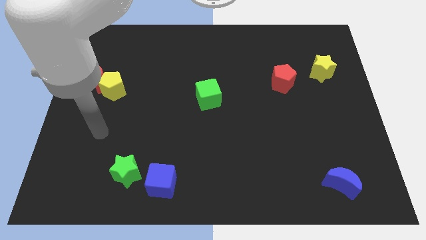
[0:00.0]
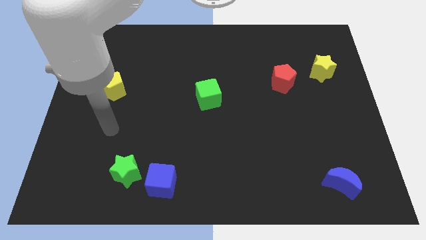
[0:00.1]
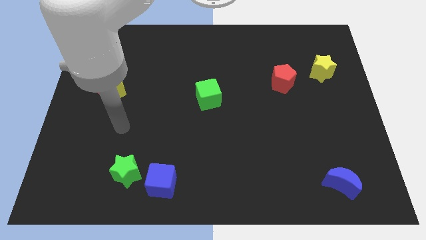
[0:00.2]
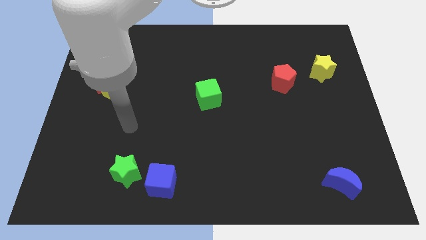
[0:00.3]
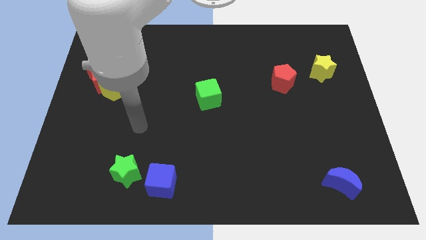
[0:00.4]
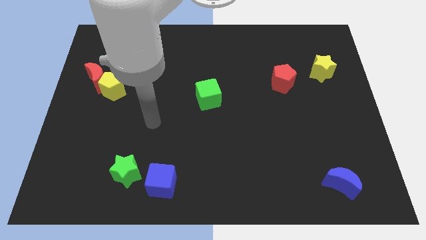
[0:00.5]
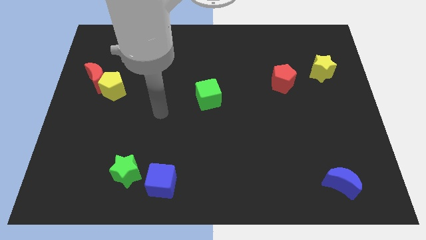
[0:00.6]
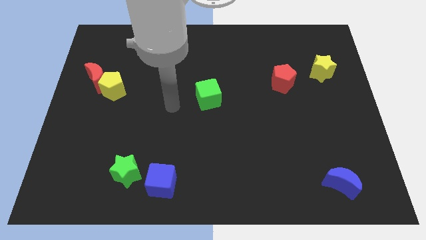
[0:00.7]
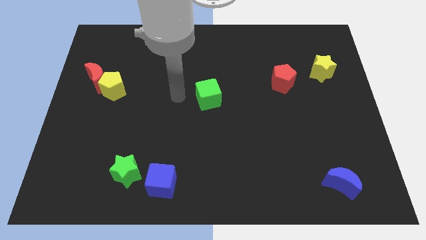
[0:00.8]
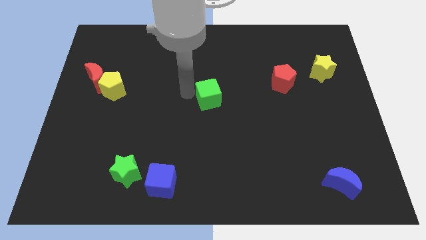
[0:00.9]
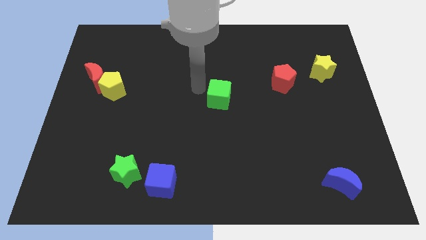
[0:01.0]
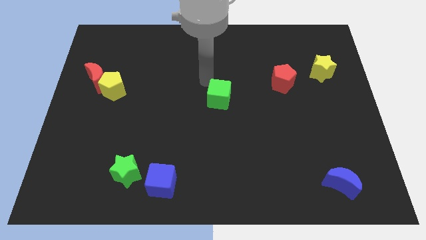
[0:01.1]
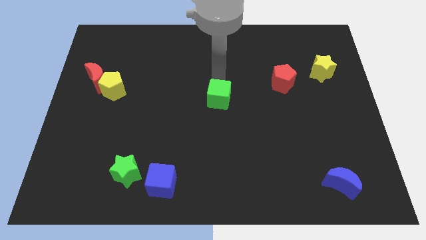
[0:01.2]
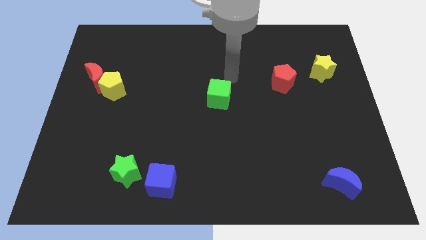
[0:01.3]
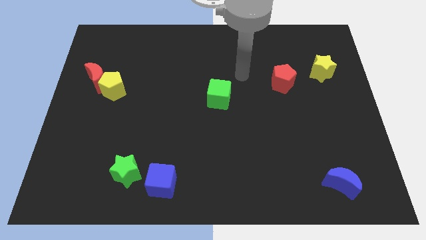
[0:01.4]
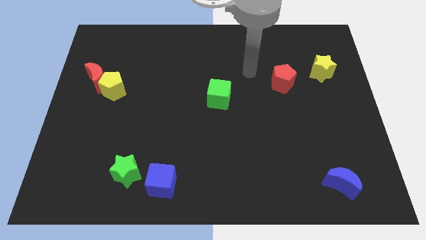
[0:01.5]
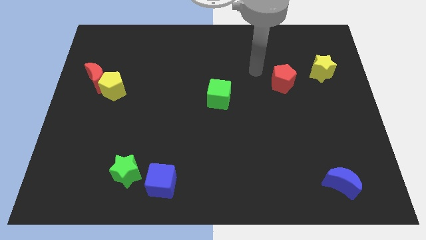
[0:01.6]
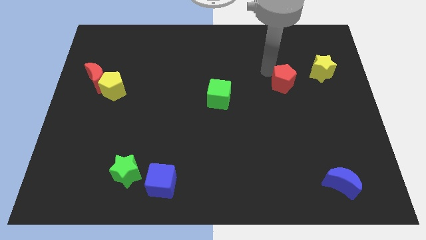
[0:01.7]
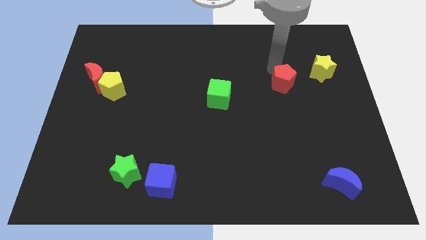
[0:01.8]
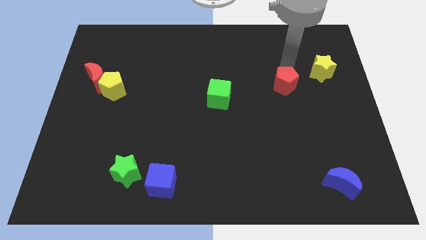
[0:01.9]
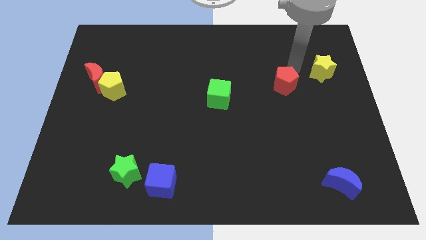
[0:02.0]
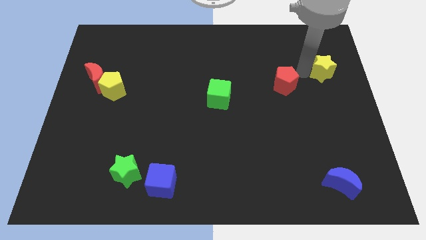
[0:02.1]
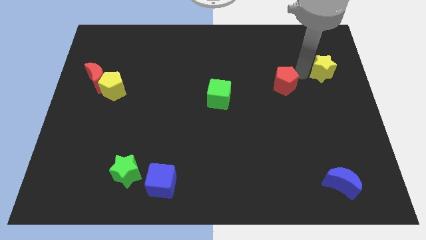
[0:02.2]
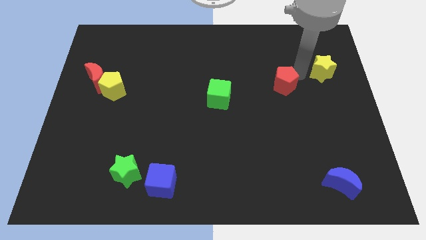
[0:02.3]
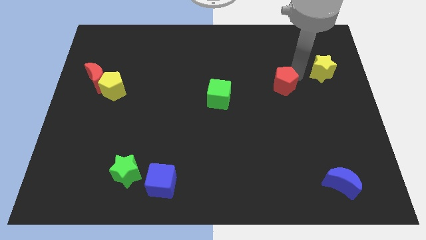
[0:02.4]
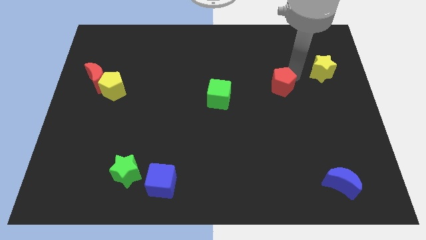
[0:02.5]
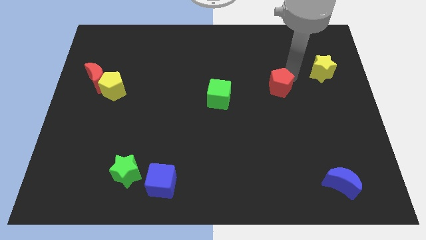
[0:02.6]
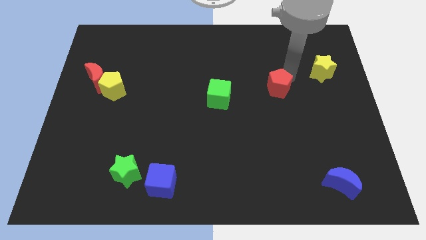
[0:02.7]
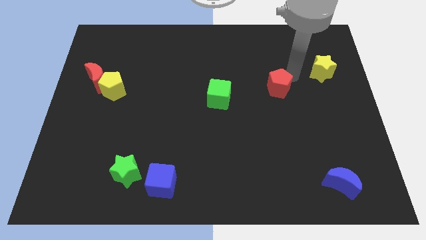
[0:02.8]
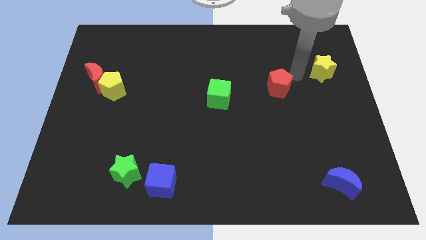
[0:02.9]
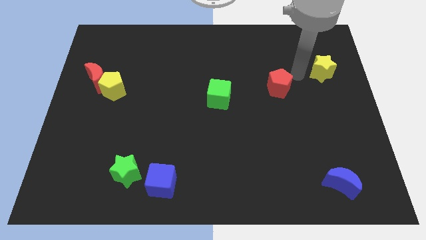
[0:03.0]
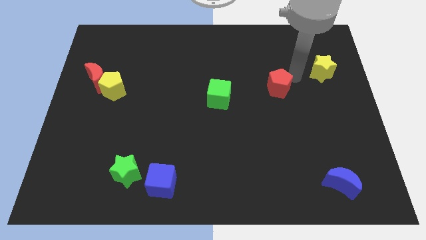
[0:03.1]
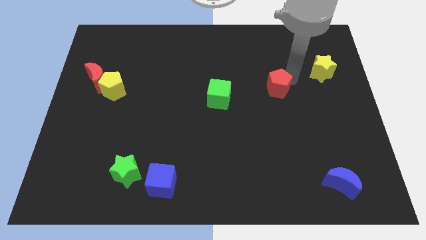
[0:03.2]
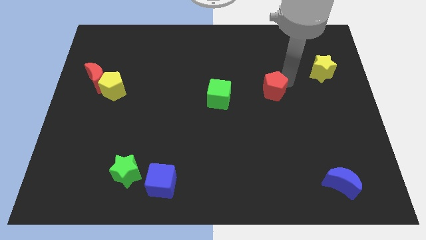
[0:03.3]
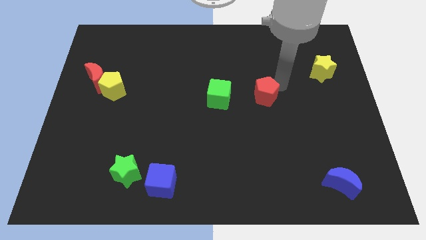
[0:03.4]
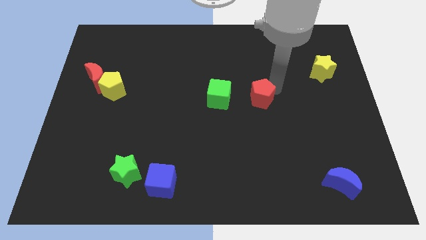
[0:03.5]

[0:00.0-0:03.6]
move the red pentagon slightly downwards and then left

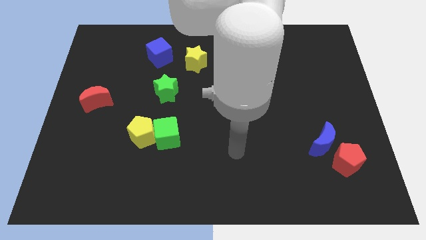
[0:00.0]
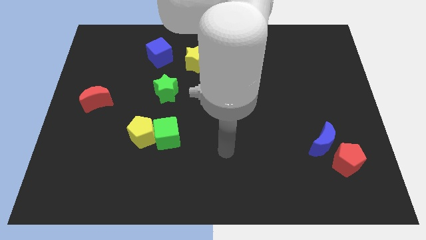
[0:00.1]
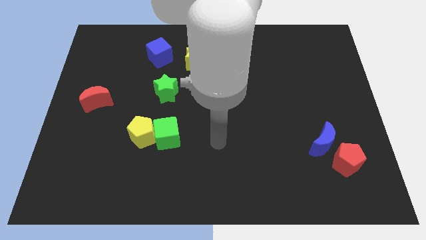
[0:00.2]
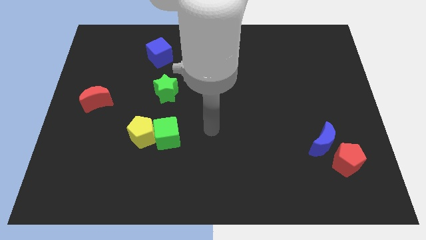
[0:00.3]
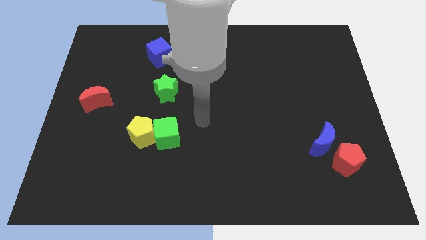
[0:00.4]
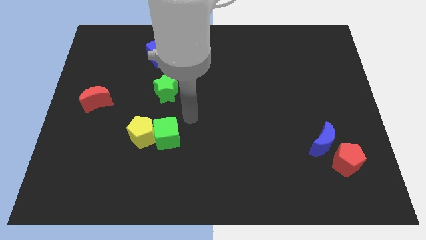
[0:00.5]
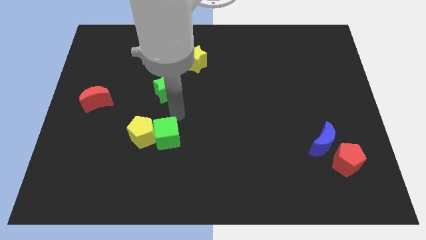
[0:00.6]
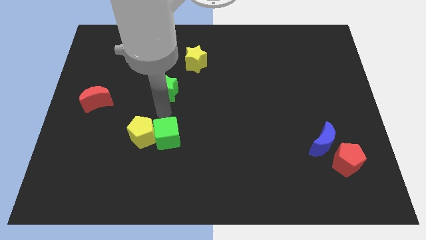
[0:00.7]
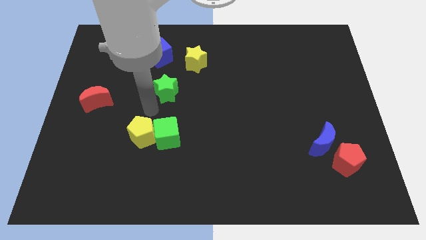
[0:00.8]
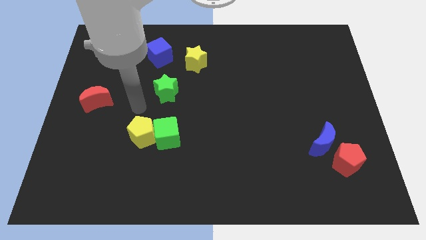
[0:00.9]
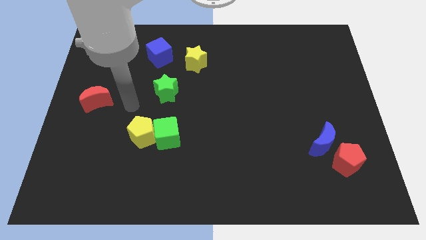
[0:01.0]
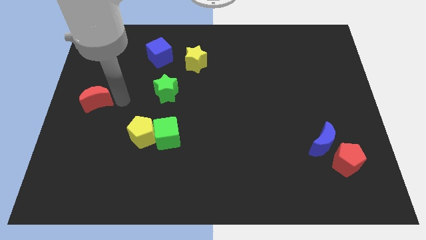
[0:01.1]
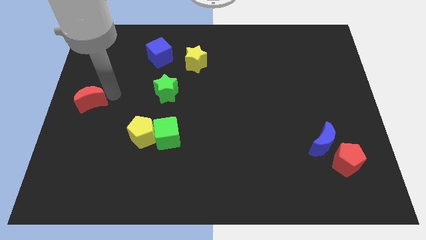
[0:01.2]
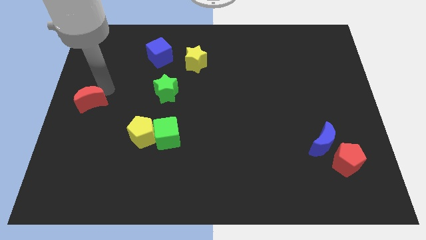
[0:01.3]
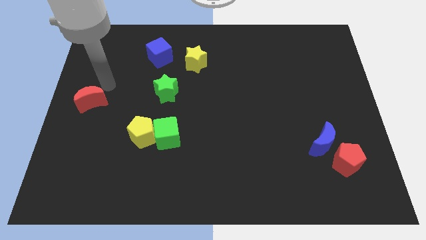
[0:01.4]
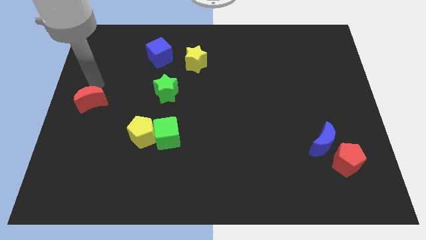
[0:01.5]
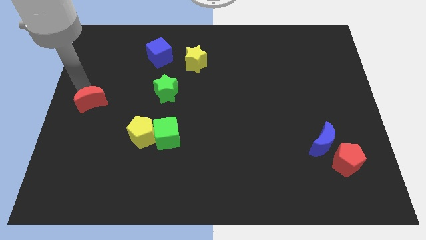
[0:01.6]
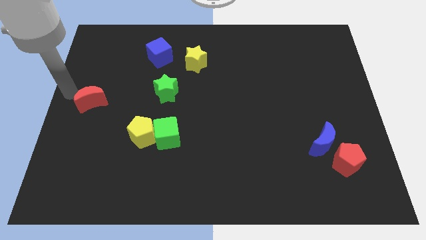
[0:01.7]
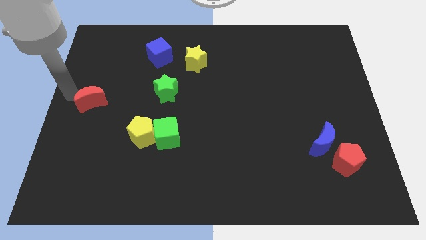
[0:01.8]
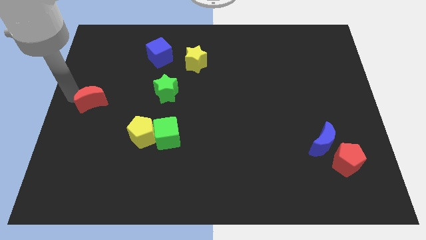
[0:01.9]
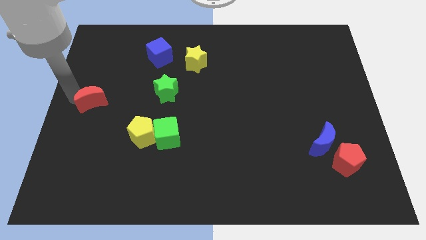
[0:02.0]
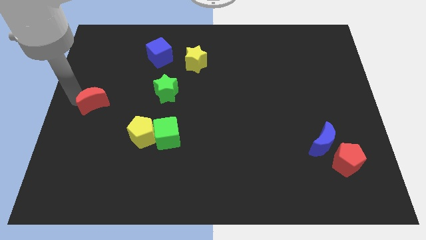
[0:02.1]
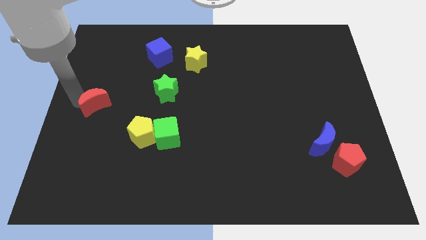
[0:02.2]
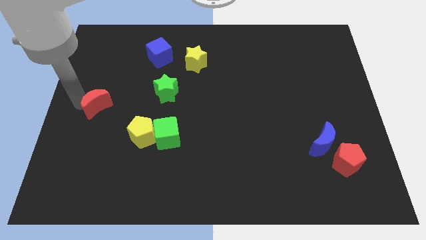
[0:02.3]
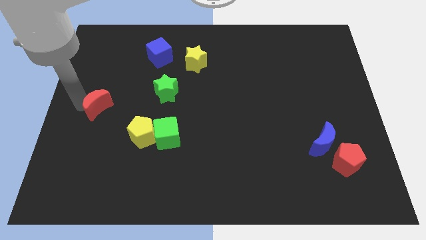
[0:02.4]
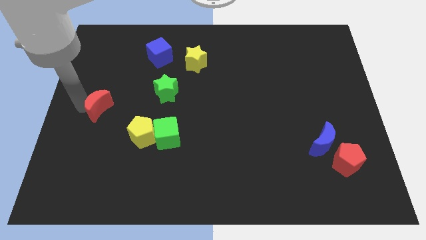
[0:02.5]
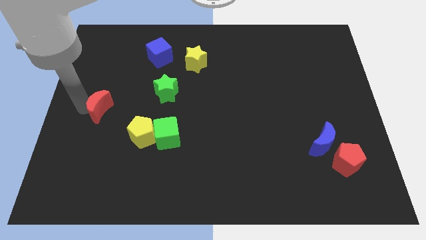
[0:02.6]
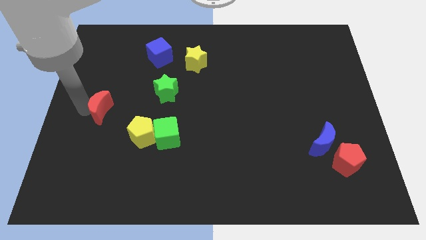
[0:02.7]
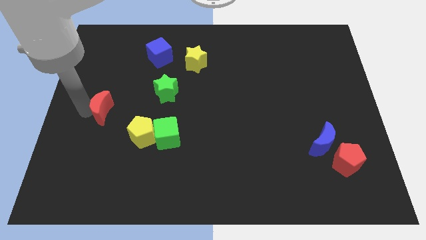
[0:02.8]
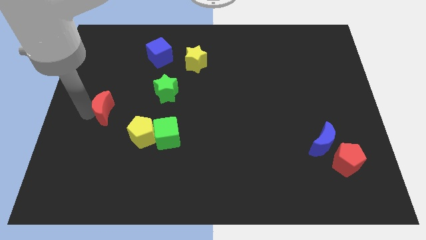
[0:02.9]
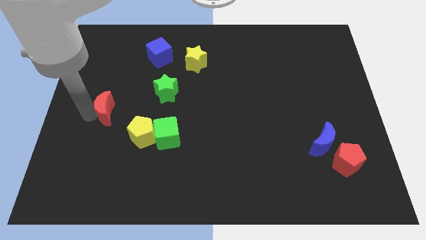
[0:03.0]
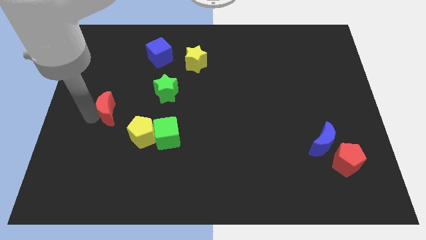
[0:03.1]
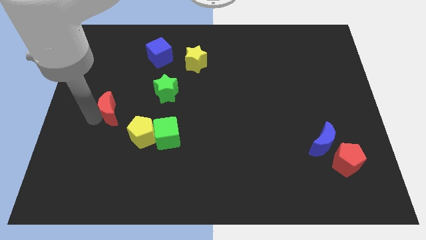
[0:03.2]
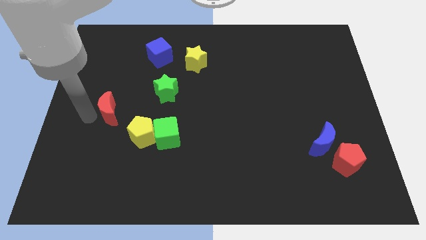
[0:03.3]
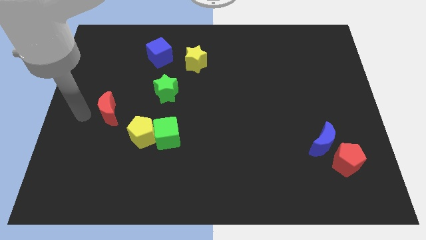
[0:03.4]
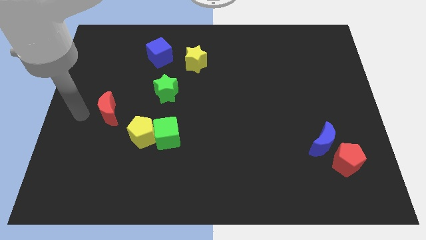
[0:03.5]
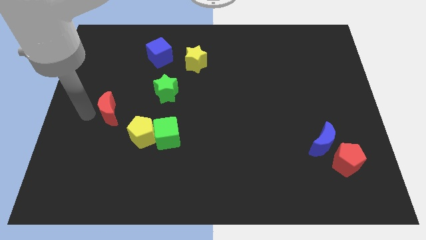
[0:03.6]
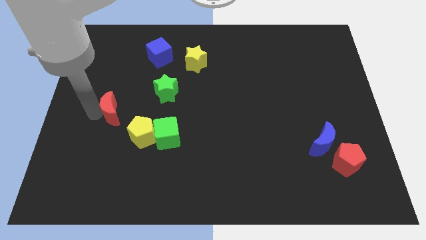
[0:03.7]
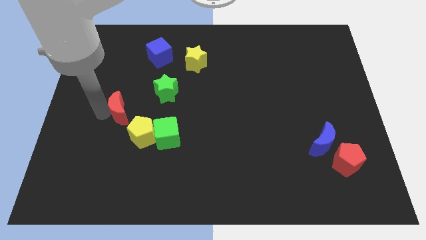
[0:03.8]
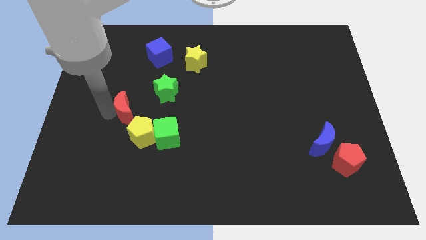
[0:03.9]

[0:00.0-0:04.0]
move the red moon right a little
